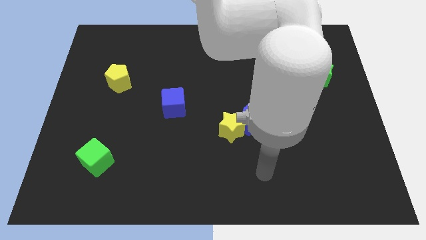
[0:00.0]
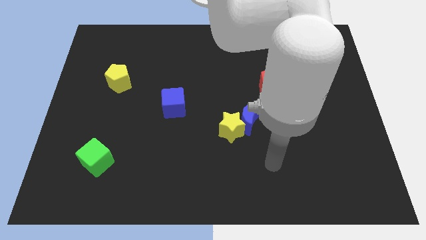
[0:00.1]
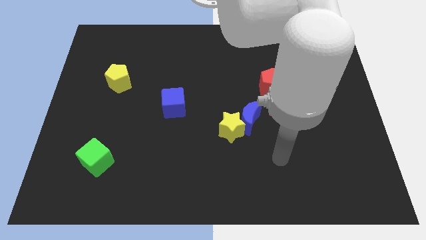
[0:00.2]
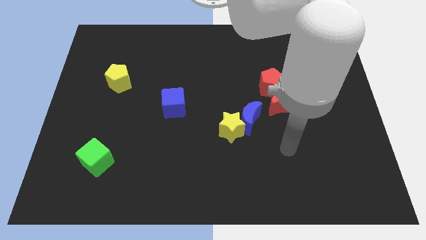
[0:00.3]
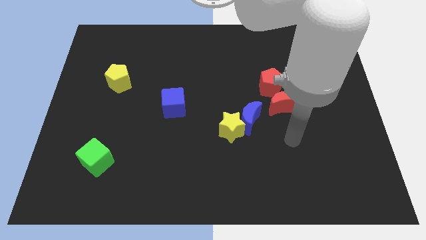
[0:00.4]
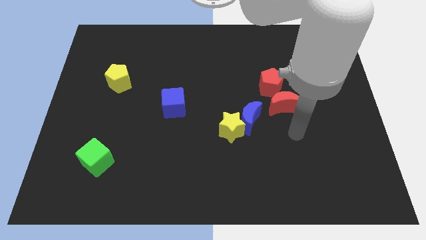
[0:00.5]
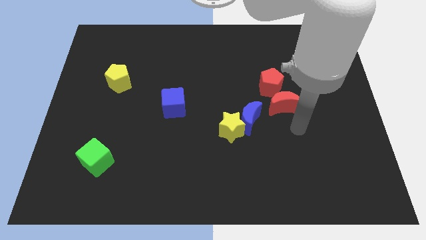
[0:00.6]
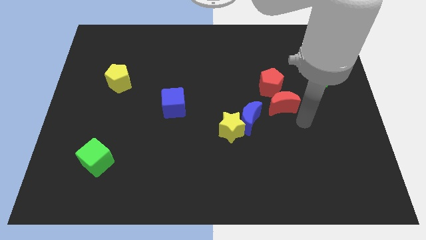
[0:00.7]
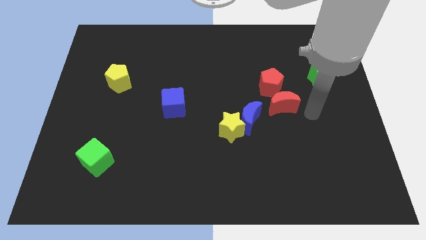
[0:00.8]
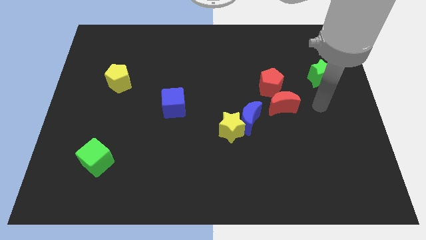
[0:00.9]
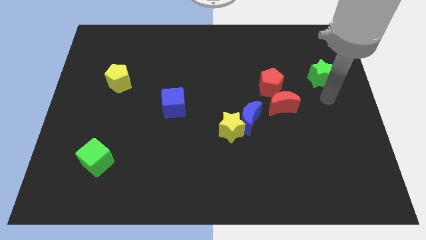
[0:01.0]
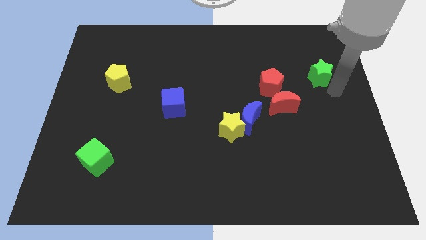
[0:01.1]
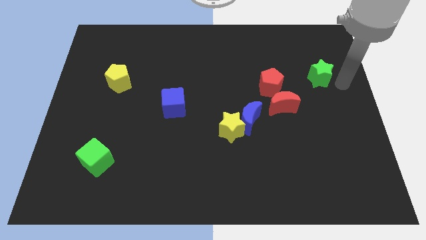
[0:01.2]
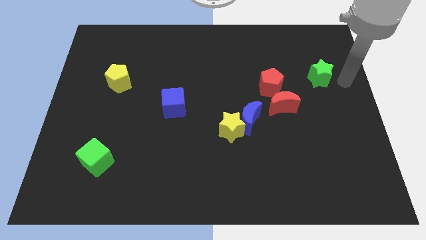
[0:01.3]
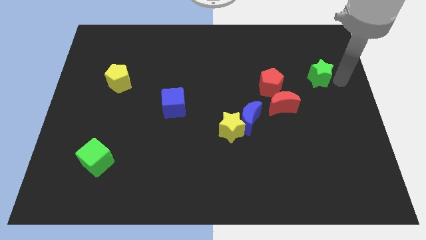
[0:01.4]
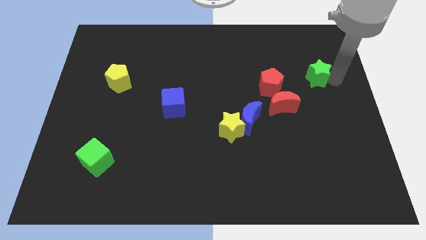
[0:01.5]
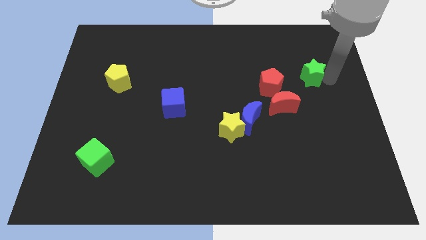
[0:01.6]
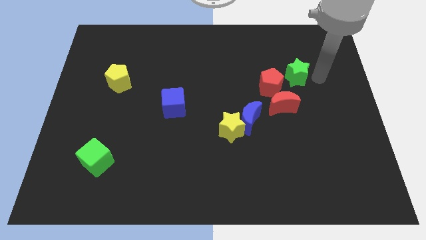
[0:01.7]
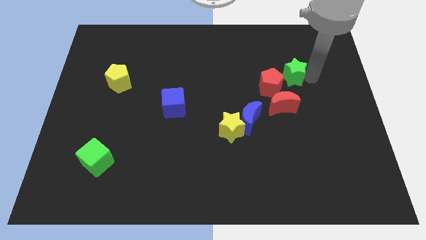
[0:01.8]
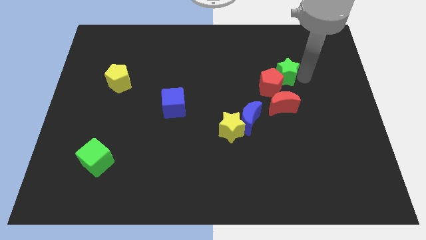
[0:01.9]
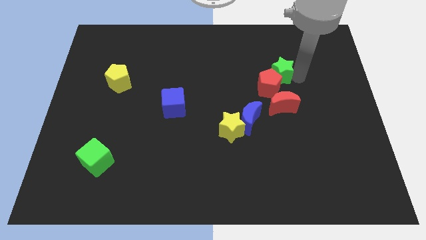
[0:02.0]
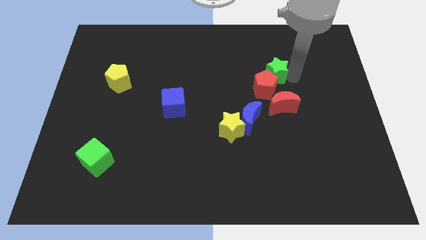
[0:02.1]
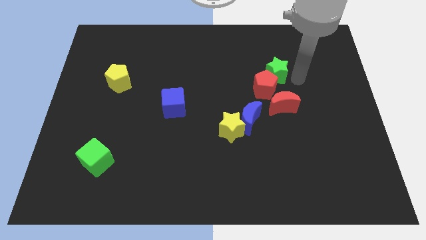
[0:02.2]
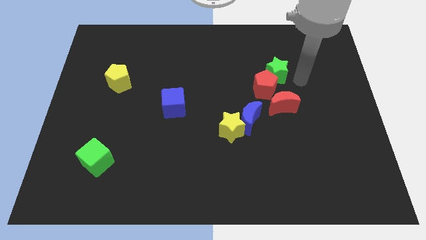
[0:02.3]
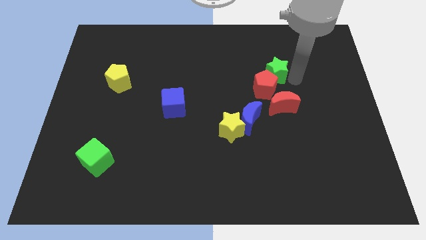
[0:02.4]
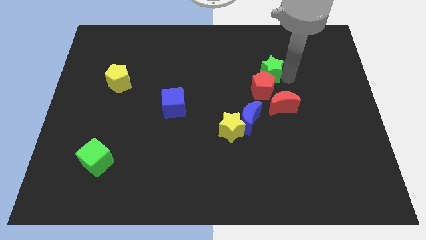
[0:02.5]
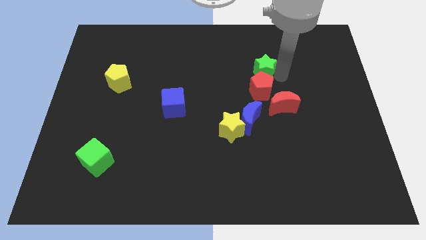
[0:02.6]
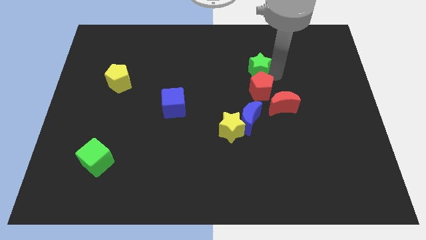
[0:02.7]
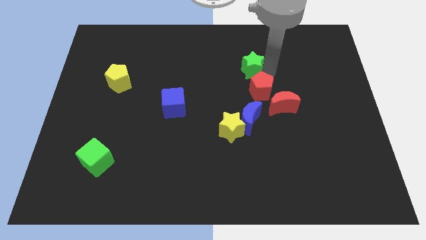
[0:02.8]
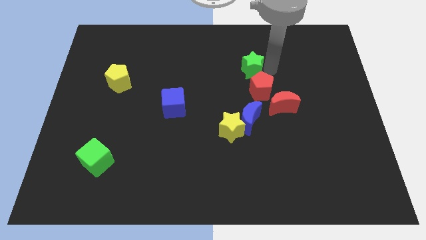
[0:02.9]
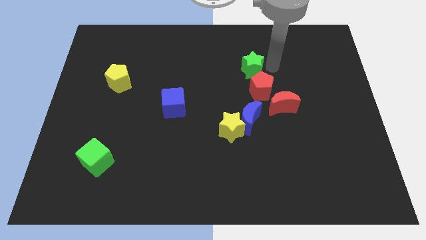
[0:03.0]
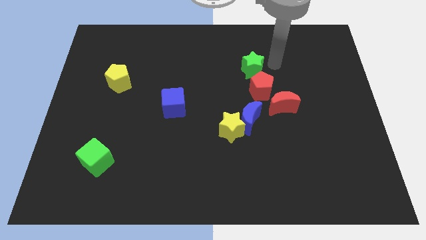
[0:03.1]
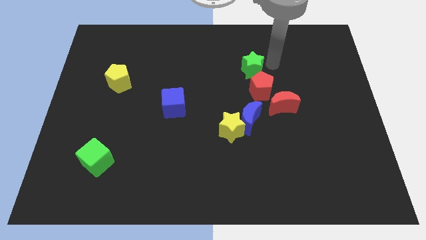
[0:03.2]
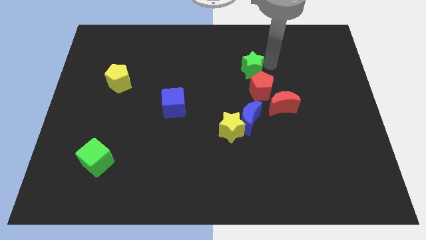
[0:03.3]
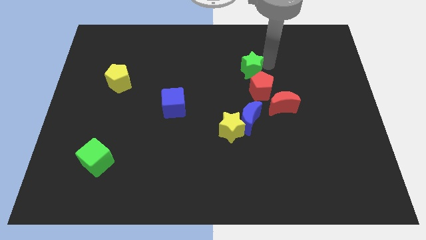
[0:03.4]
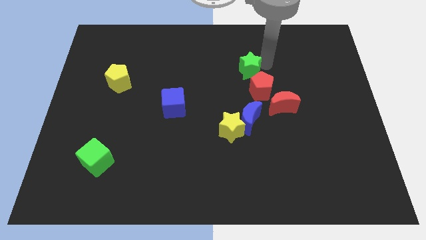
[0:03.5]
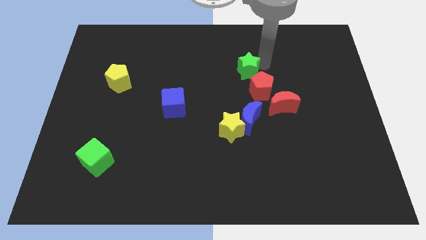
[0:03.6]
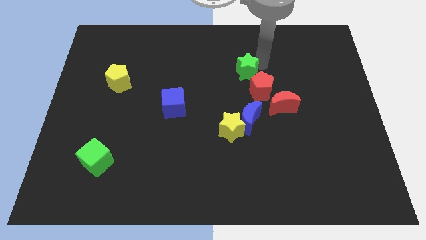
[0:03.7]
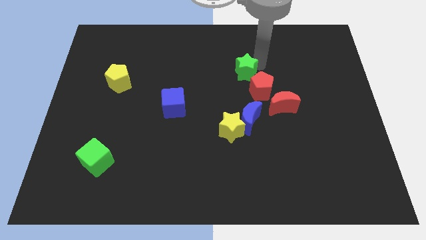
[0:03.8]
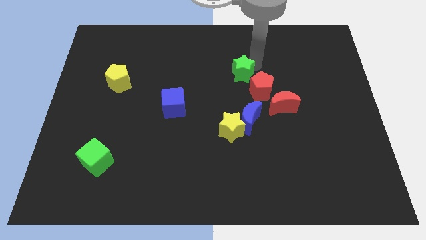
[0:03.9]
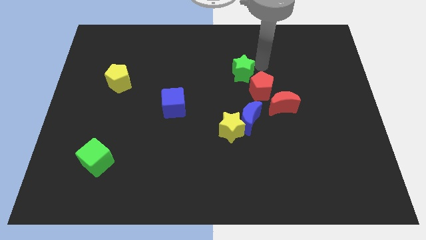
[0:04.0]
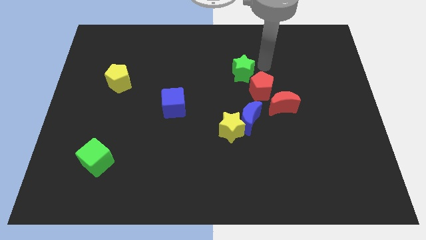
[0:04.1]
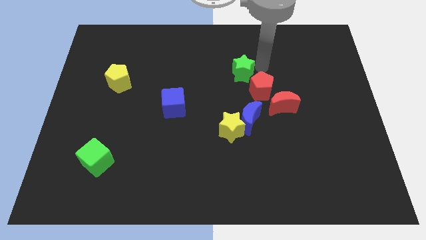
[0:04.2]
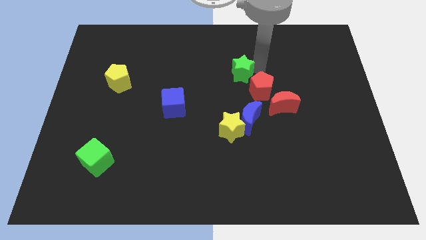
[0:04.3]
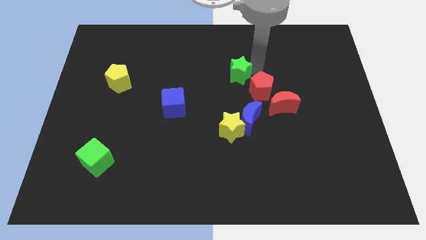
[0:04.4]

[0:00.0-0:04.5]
slide the green star to the left

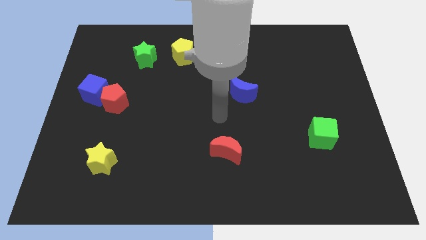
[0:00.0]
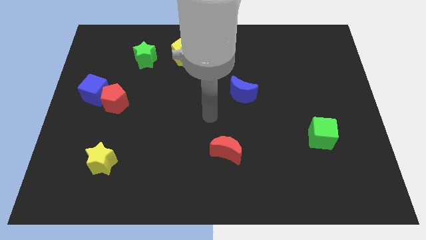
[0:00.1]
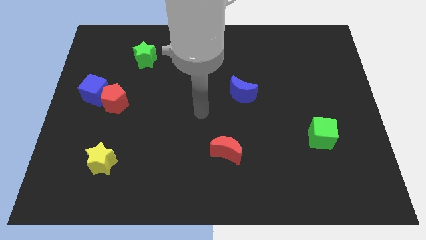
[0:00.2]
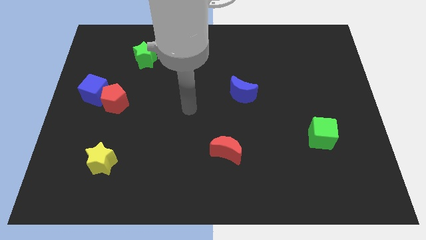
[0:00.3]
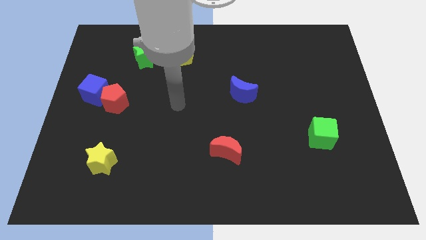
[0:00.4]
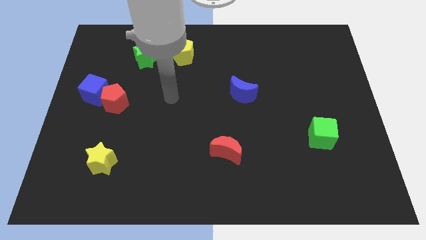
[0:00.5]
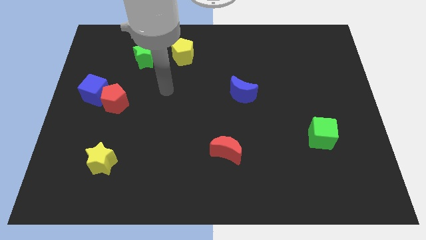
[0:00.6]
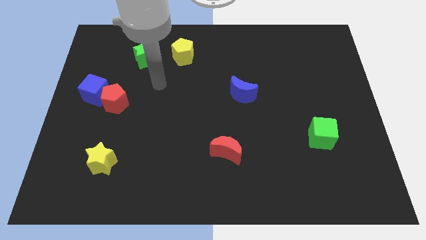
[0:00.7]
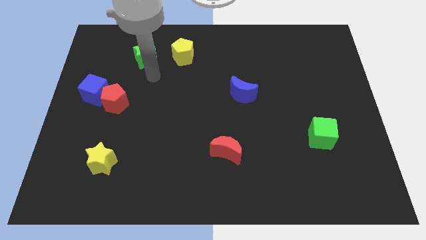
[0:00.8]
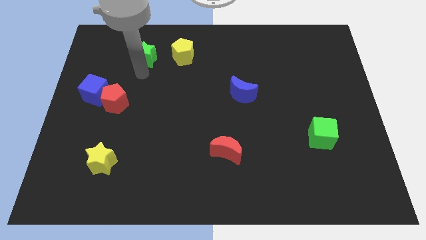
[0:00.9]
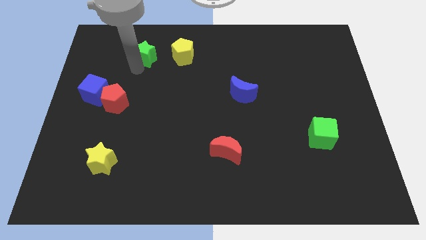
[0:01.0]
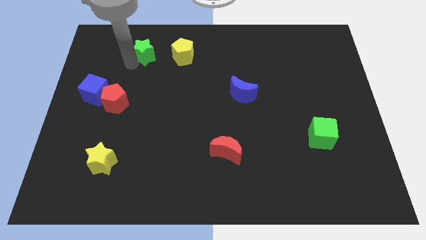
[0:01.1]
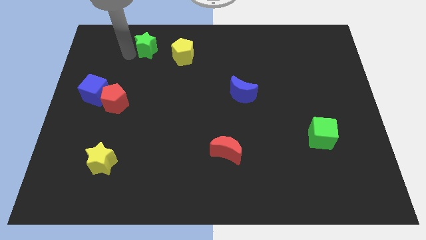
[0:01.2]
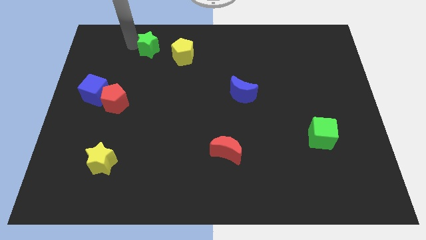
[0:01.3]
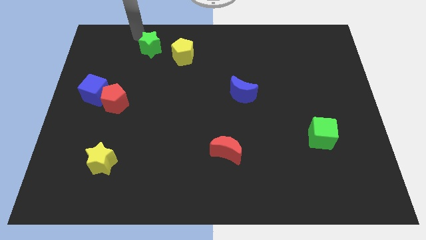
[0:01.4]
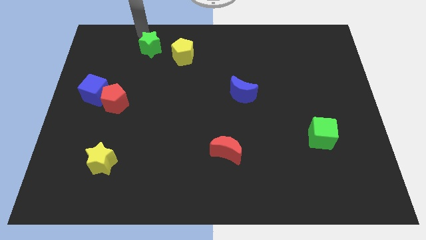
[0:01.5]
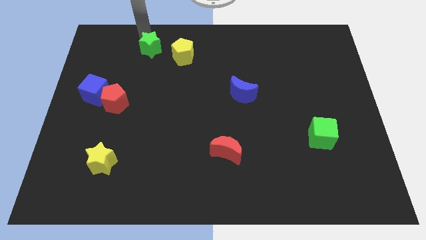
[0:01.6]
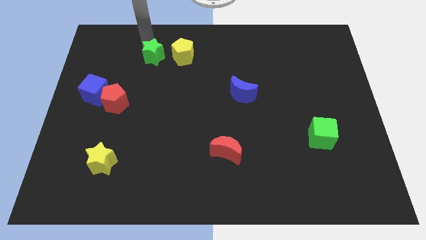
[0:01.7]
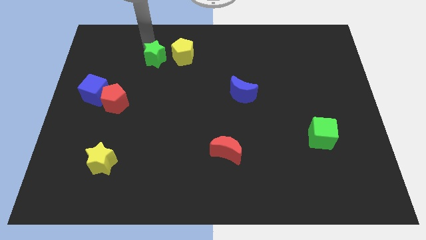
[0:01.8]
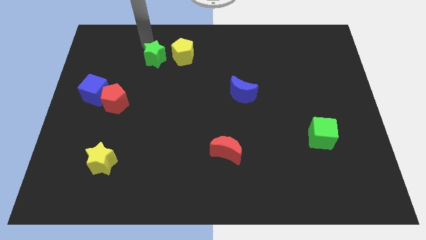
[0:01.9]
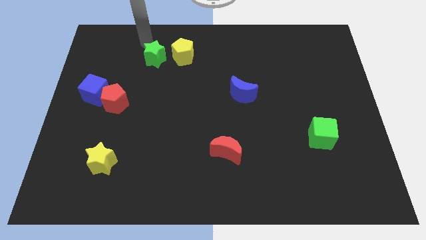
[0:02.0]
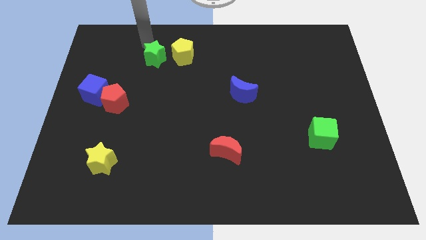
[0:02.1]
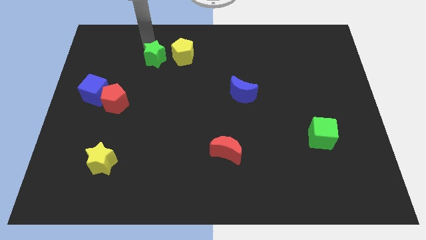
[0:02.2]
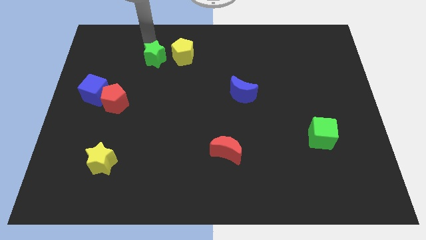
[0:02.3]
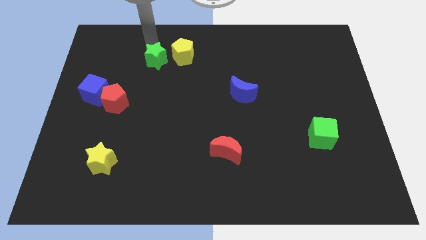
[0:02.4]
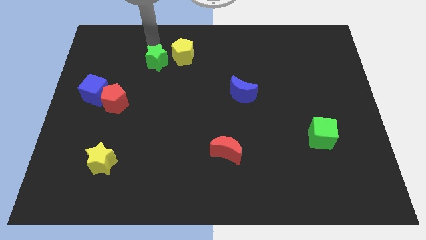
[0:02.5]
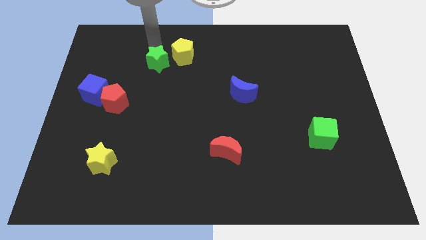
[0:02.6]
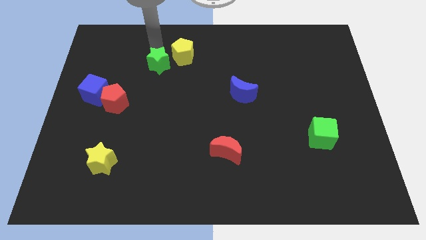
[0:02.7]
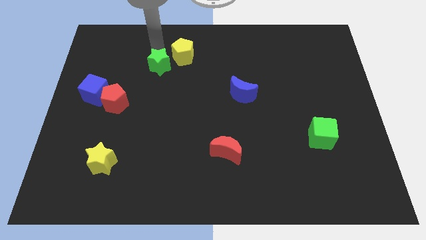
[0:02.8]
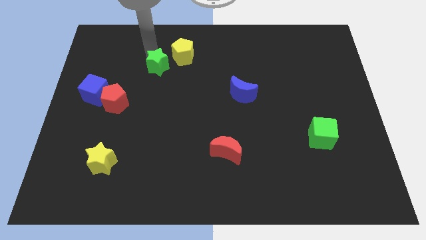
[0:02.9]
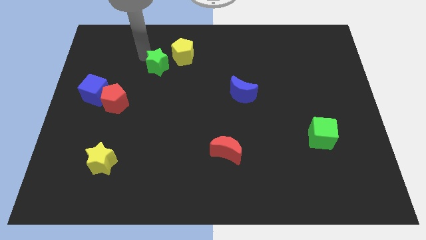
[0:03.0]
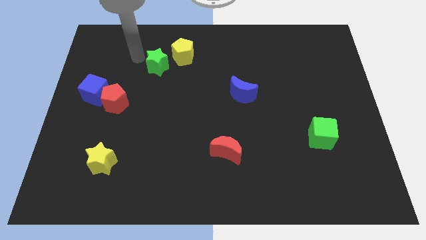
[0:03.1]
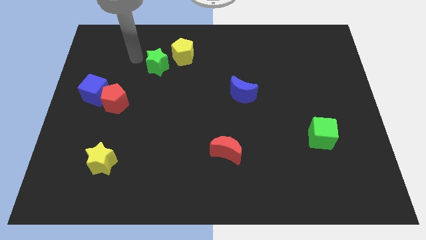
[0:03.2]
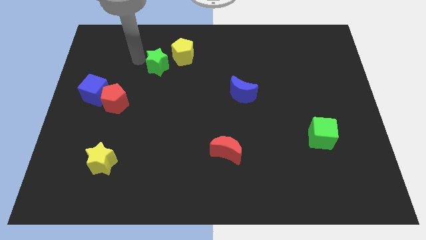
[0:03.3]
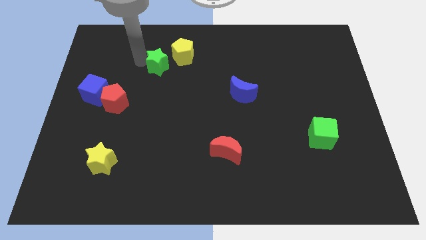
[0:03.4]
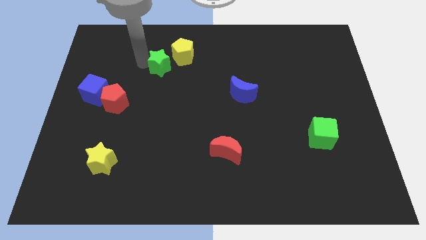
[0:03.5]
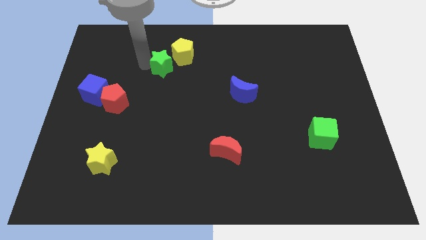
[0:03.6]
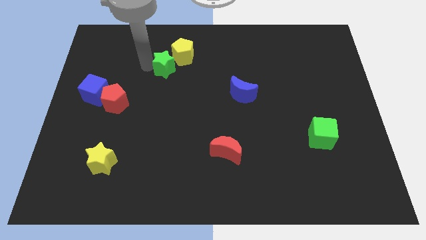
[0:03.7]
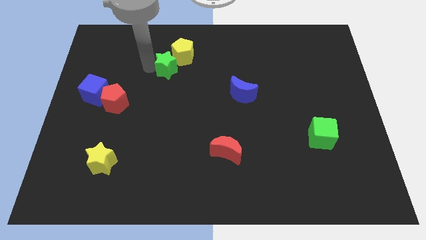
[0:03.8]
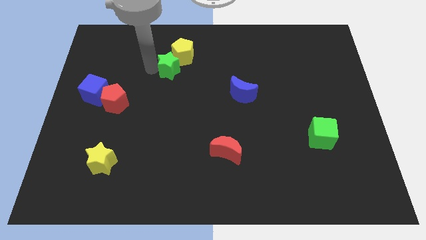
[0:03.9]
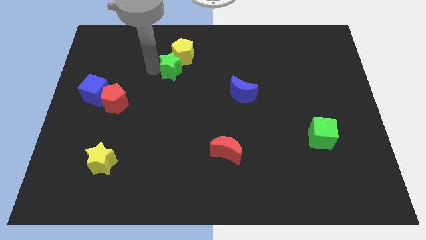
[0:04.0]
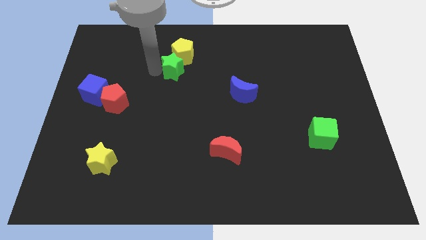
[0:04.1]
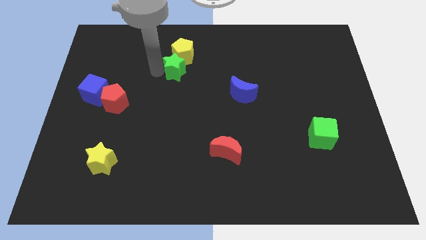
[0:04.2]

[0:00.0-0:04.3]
move the green star right a bit
